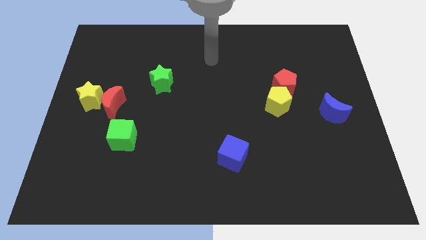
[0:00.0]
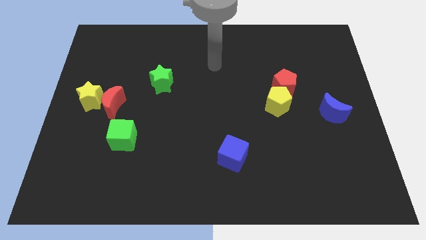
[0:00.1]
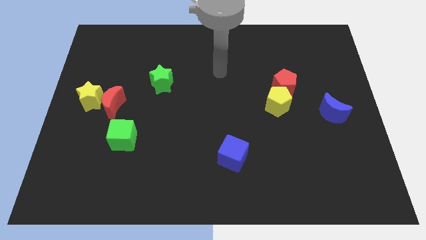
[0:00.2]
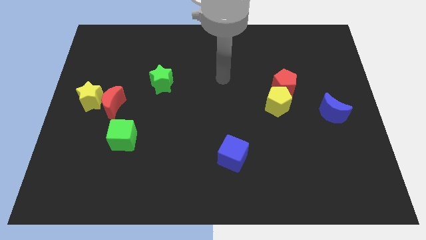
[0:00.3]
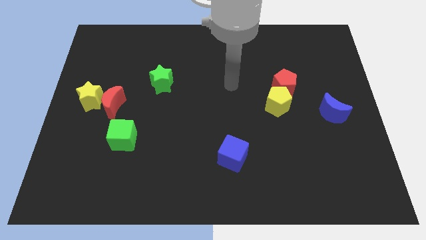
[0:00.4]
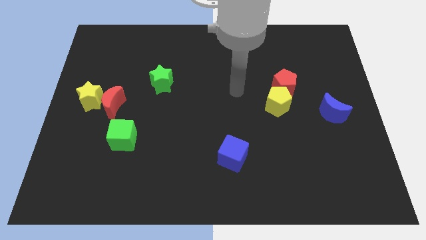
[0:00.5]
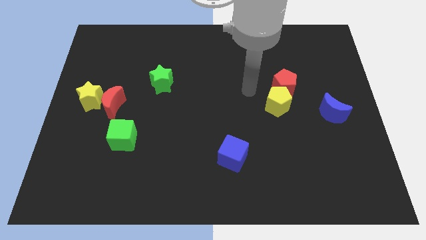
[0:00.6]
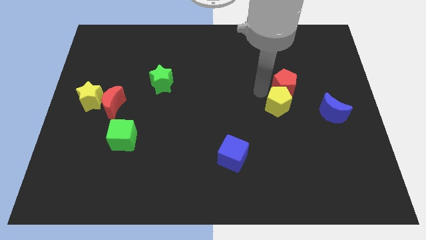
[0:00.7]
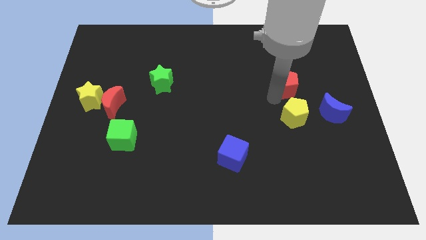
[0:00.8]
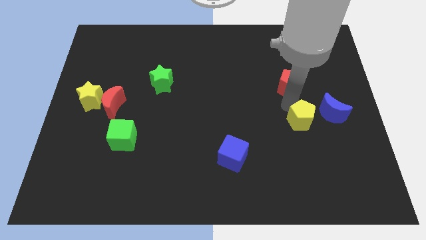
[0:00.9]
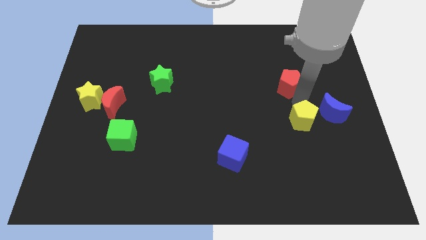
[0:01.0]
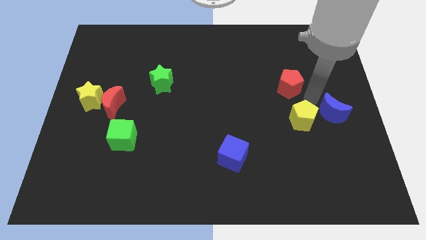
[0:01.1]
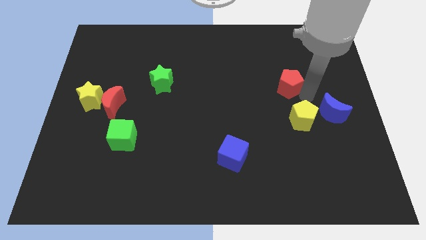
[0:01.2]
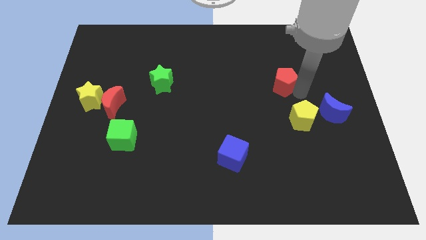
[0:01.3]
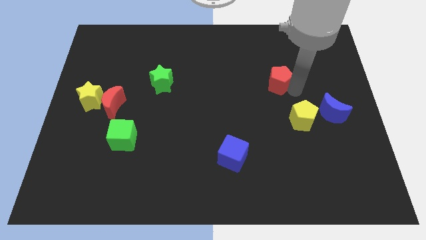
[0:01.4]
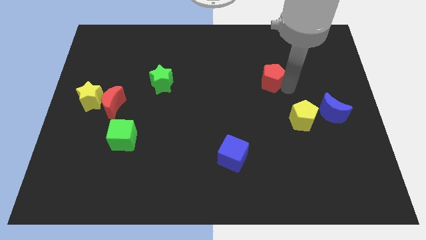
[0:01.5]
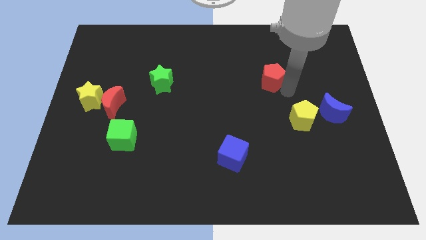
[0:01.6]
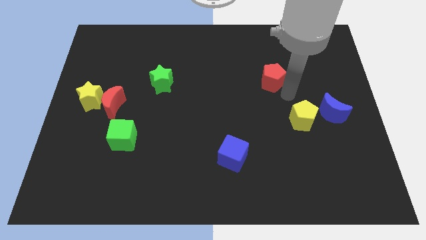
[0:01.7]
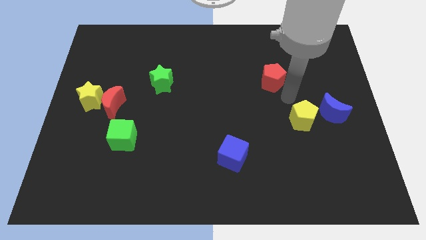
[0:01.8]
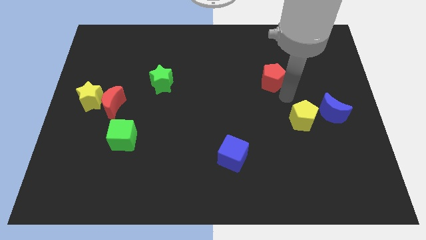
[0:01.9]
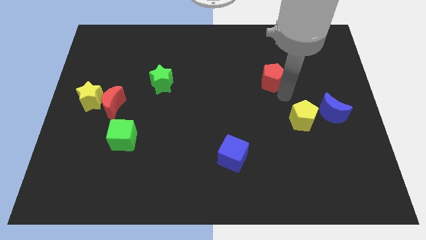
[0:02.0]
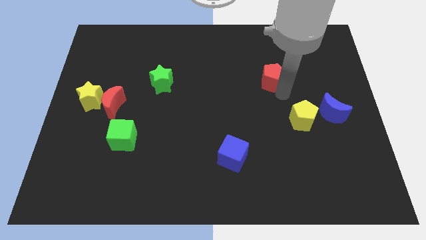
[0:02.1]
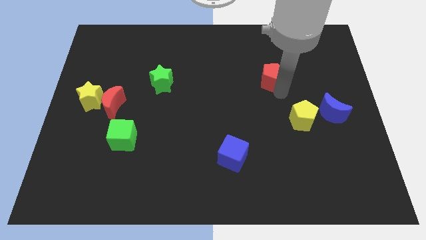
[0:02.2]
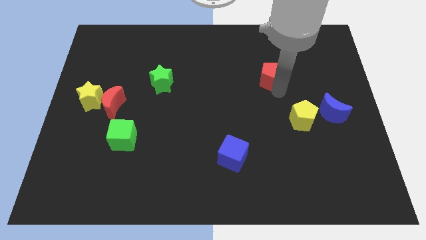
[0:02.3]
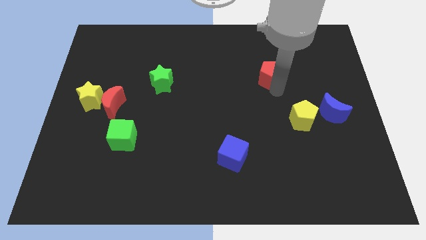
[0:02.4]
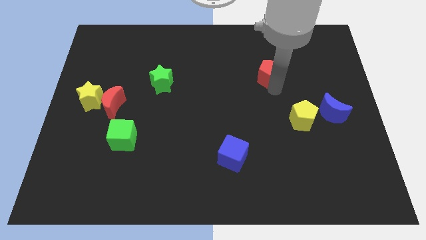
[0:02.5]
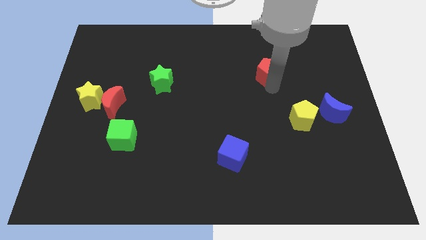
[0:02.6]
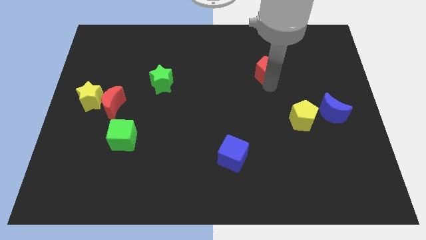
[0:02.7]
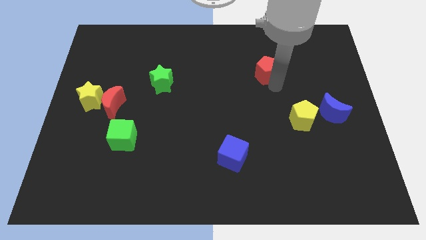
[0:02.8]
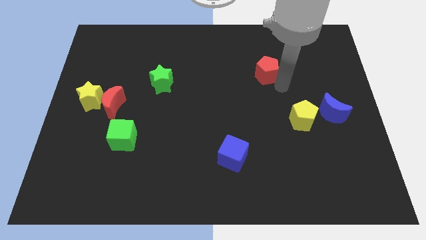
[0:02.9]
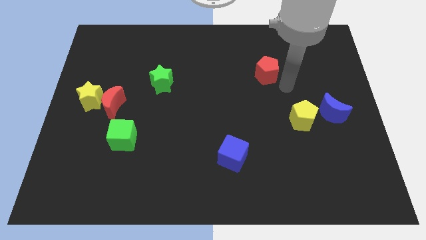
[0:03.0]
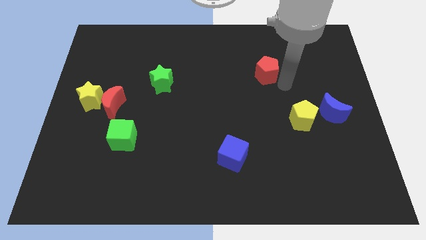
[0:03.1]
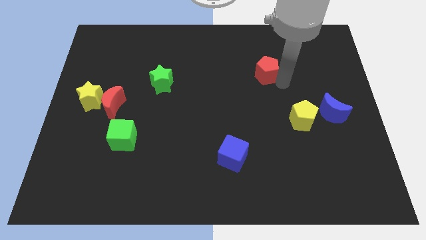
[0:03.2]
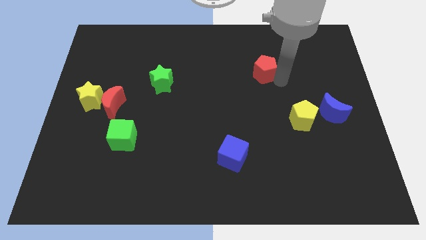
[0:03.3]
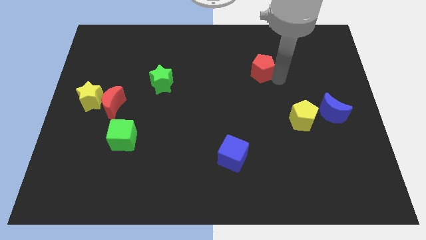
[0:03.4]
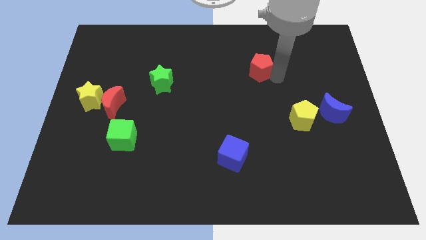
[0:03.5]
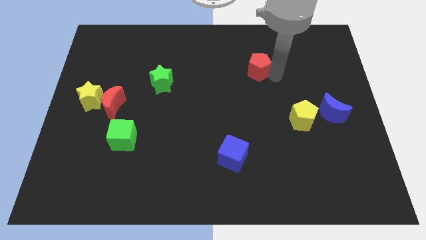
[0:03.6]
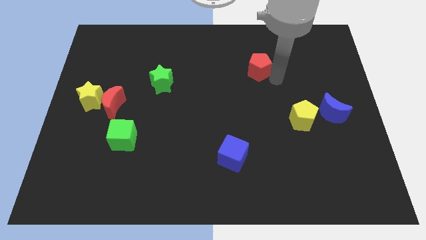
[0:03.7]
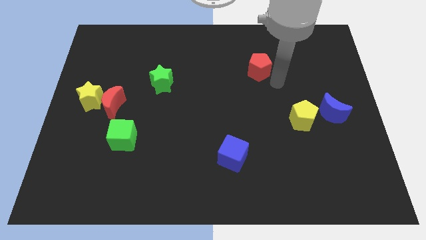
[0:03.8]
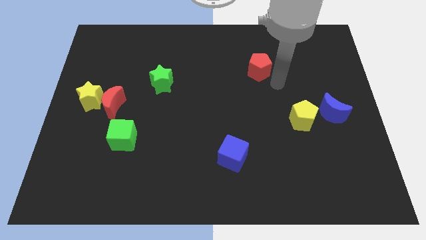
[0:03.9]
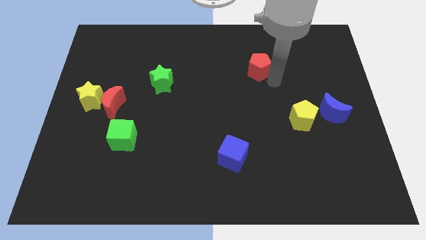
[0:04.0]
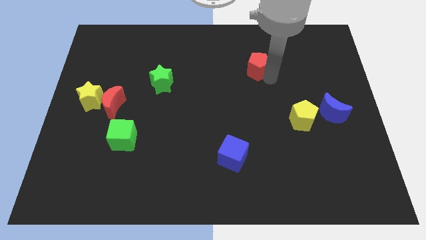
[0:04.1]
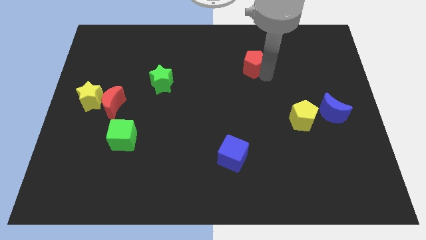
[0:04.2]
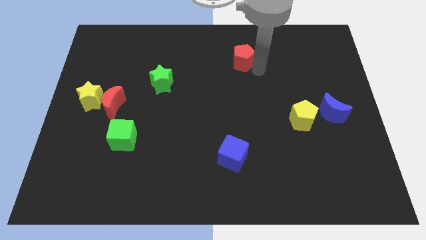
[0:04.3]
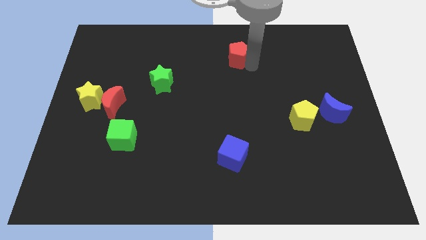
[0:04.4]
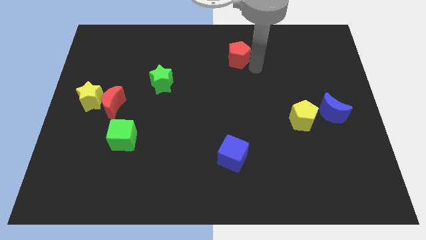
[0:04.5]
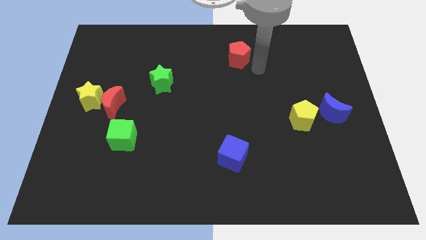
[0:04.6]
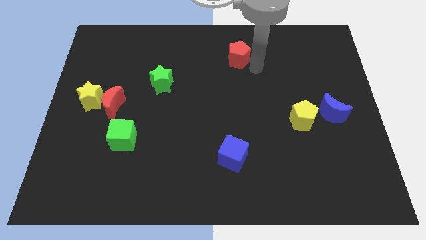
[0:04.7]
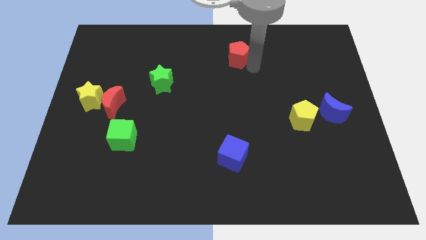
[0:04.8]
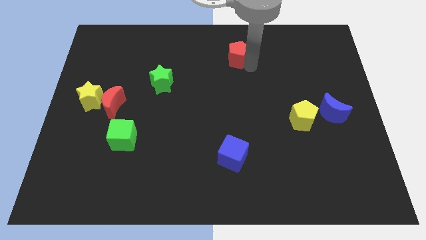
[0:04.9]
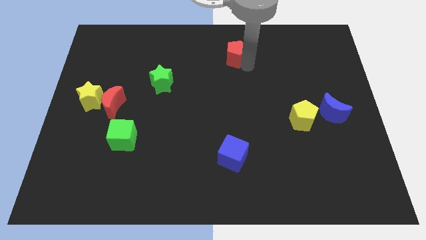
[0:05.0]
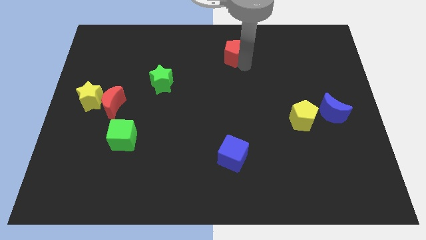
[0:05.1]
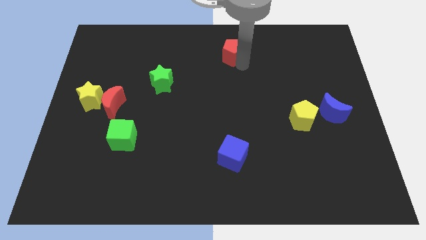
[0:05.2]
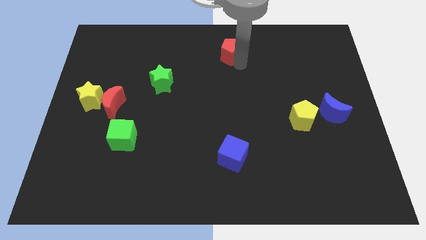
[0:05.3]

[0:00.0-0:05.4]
move the red pentagon to the top

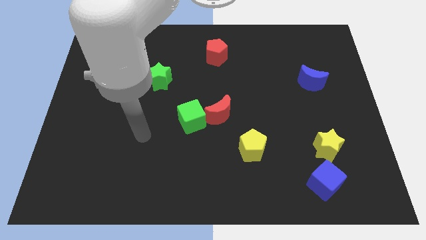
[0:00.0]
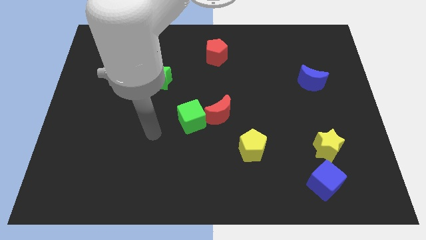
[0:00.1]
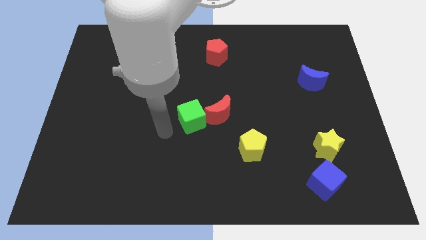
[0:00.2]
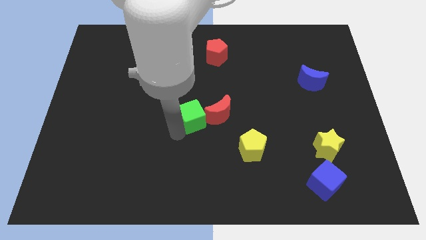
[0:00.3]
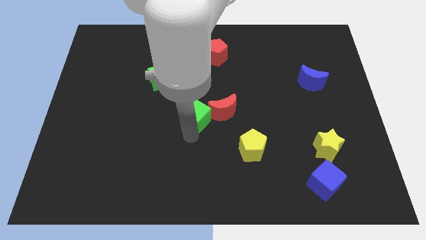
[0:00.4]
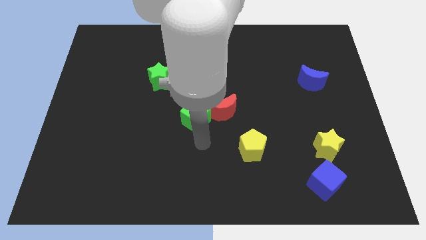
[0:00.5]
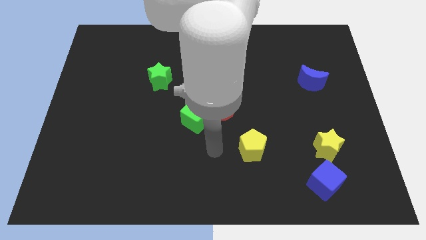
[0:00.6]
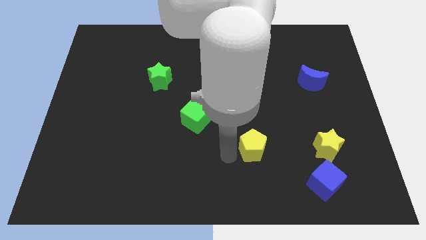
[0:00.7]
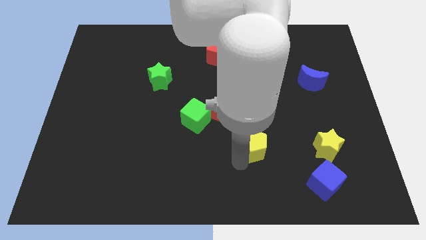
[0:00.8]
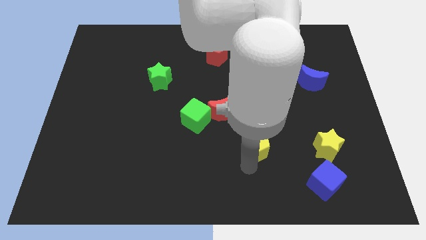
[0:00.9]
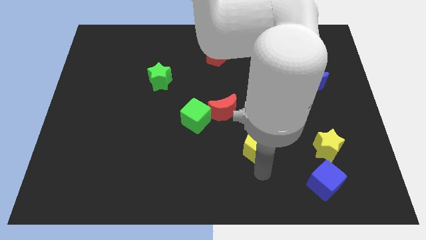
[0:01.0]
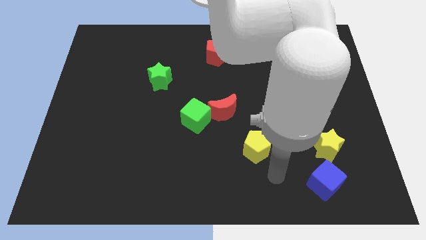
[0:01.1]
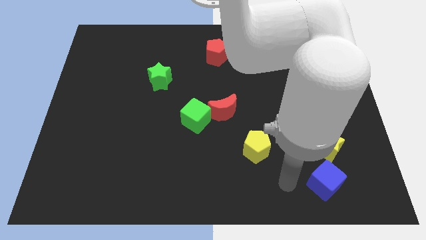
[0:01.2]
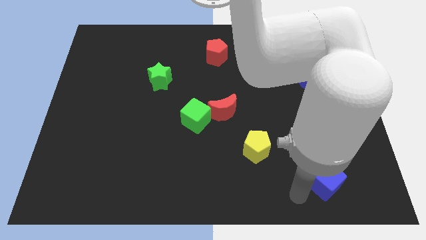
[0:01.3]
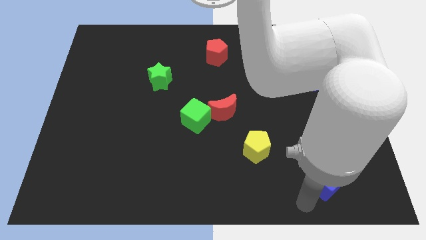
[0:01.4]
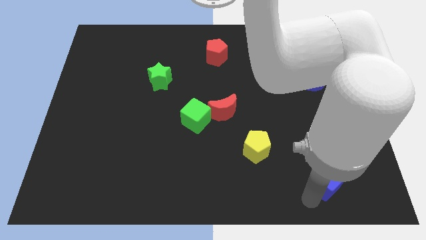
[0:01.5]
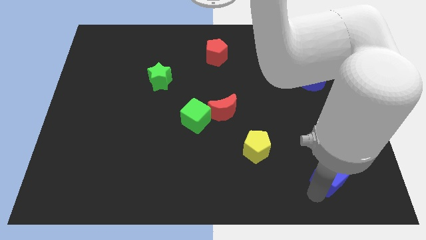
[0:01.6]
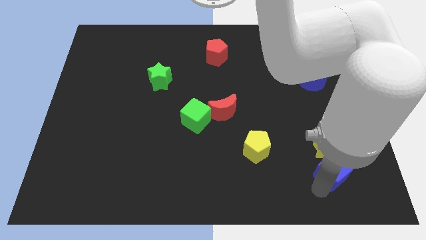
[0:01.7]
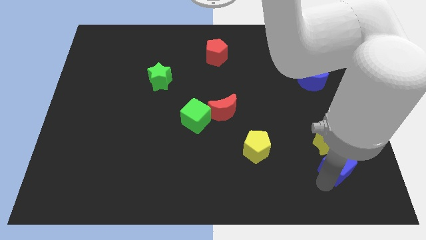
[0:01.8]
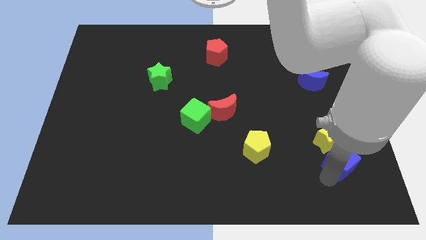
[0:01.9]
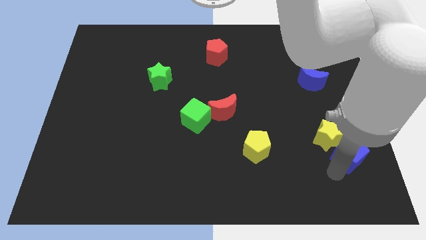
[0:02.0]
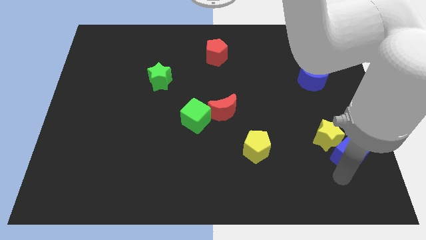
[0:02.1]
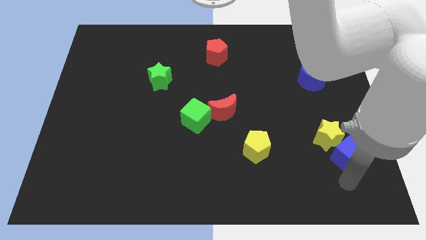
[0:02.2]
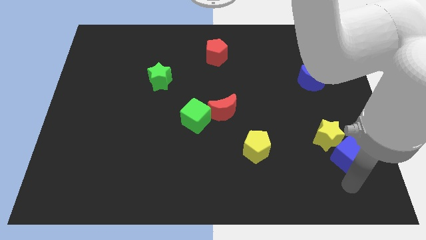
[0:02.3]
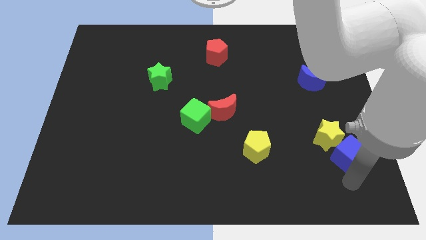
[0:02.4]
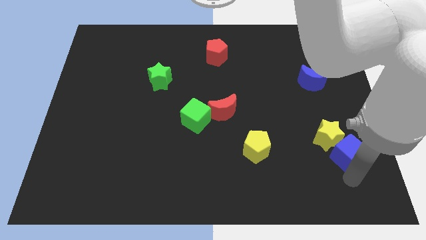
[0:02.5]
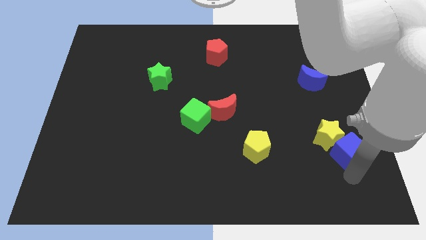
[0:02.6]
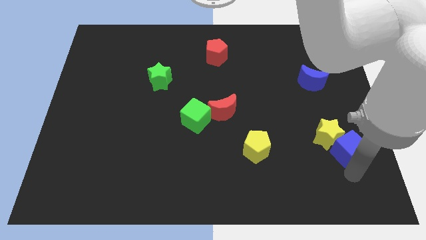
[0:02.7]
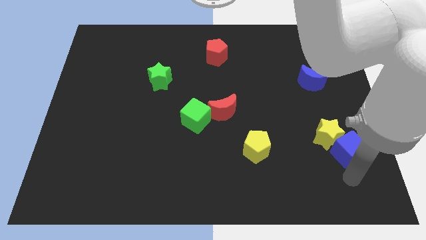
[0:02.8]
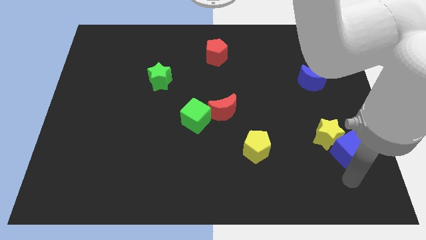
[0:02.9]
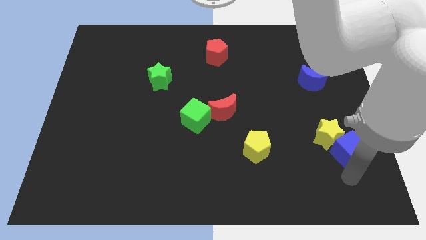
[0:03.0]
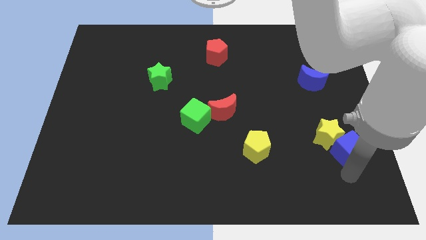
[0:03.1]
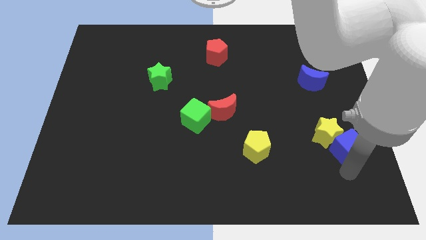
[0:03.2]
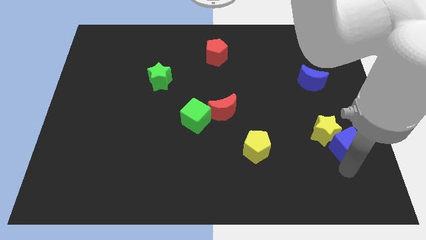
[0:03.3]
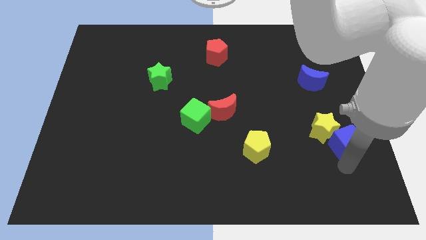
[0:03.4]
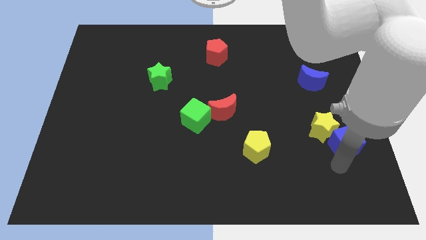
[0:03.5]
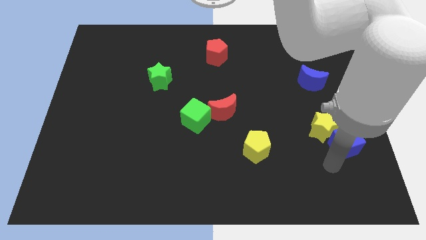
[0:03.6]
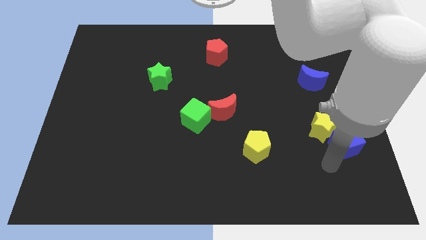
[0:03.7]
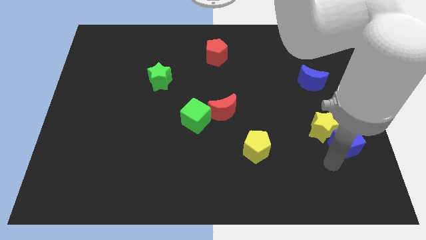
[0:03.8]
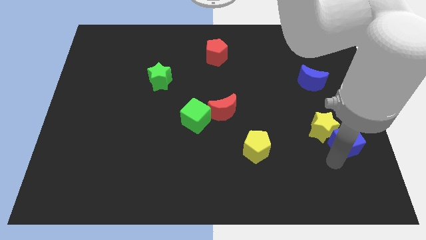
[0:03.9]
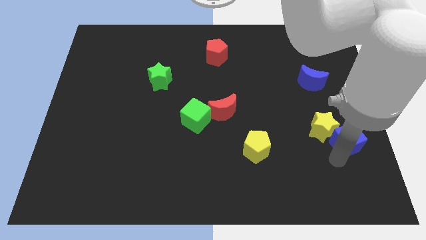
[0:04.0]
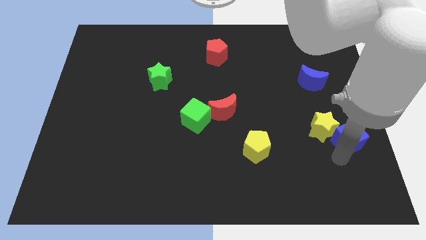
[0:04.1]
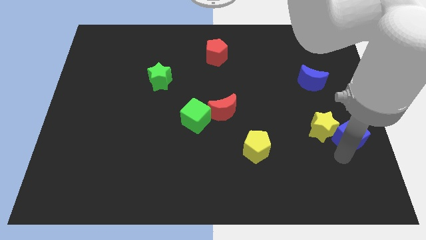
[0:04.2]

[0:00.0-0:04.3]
move the blue cube to the right side
